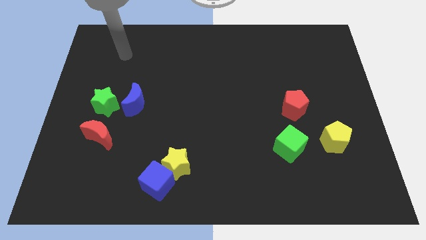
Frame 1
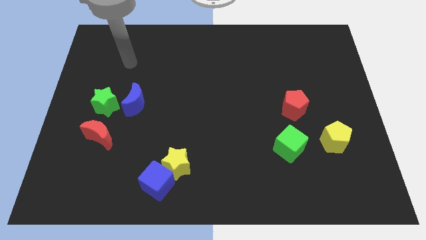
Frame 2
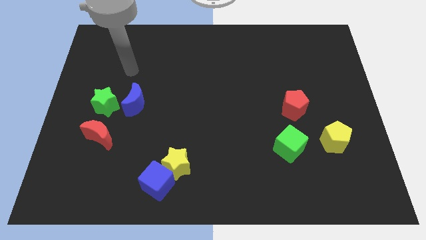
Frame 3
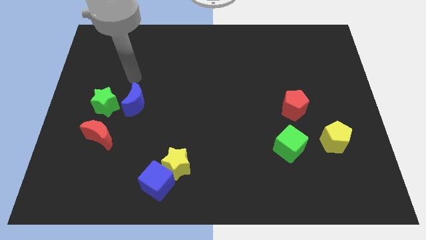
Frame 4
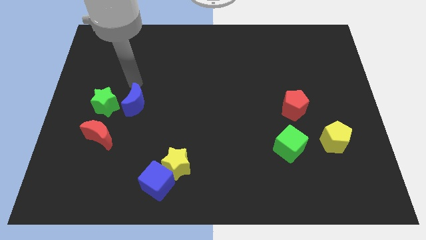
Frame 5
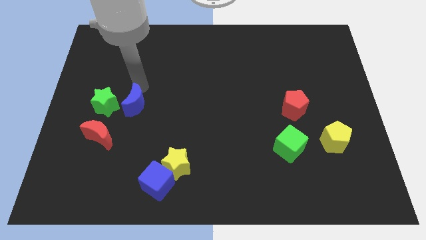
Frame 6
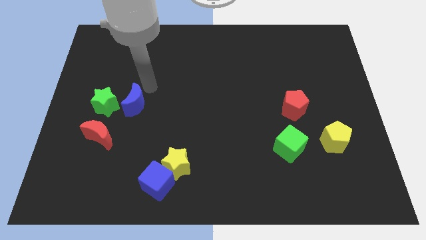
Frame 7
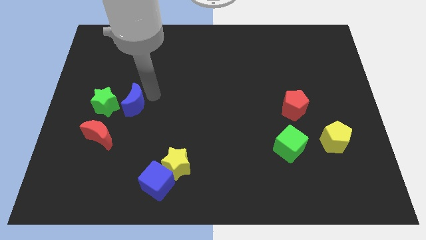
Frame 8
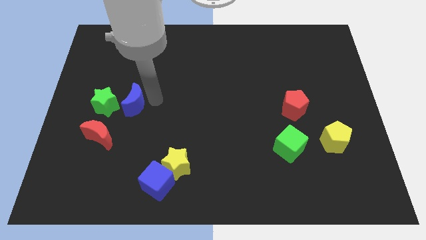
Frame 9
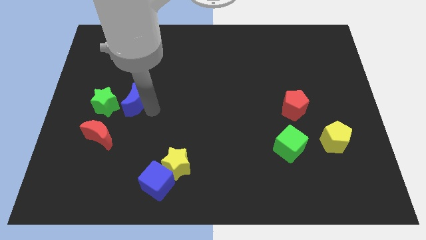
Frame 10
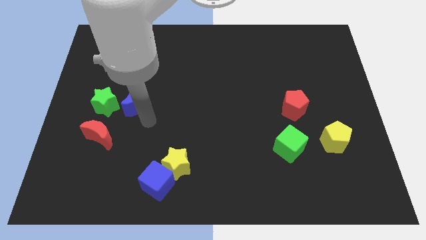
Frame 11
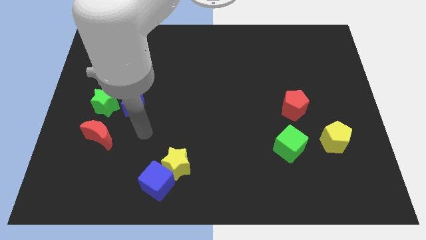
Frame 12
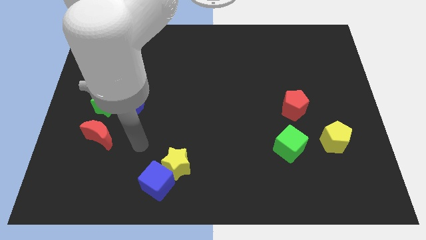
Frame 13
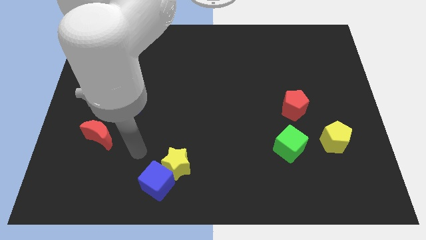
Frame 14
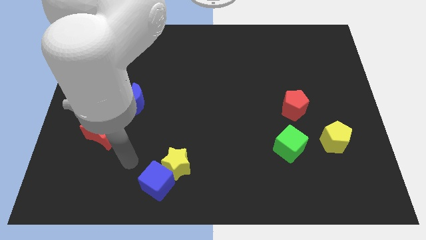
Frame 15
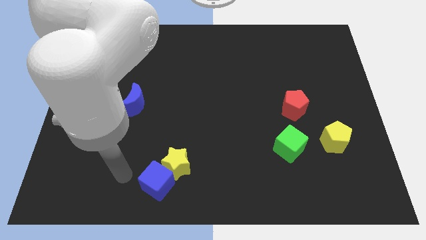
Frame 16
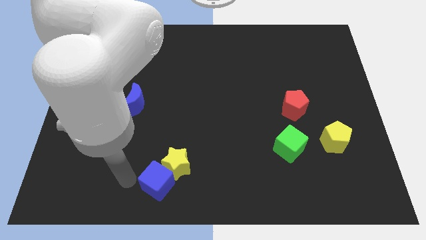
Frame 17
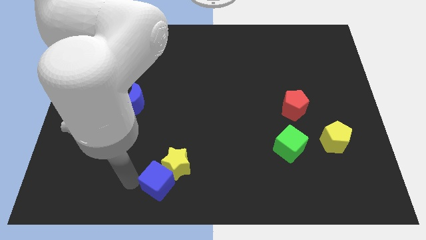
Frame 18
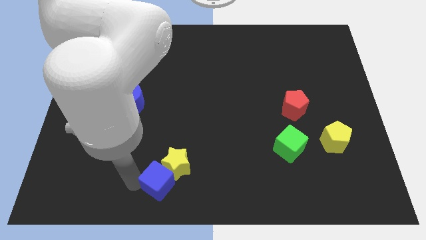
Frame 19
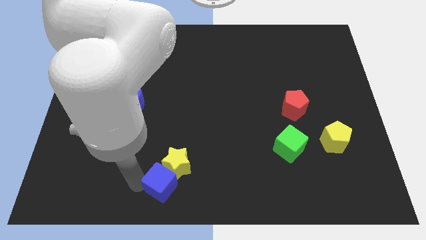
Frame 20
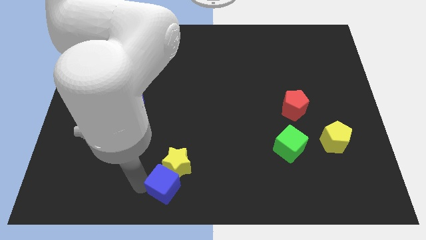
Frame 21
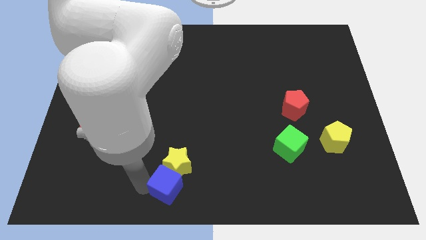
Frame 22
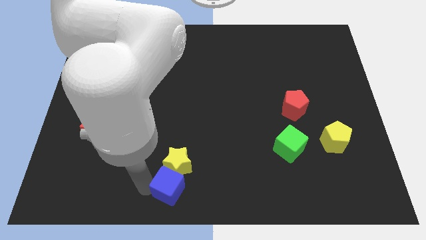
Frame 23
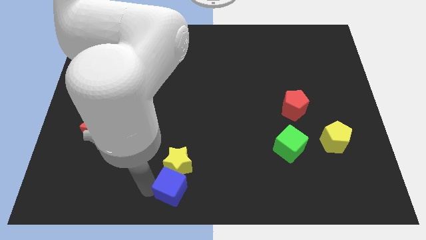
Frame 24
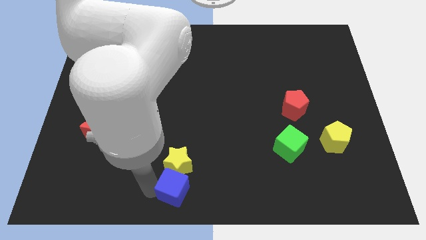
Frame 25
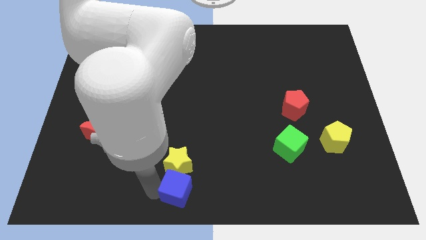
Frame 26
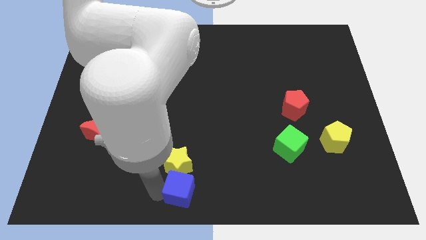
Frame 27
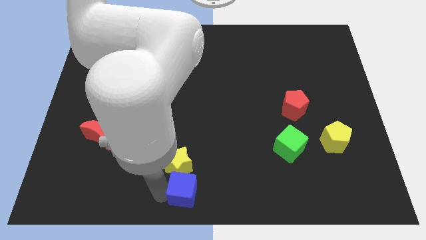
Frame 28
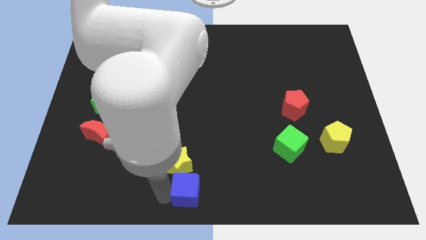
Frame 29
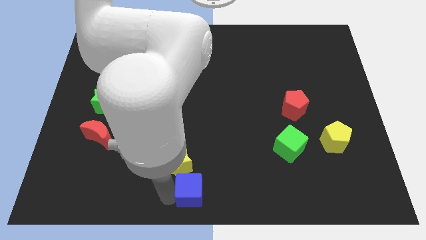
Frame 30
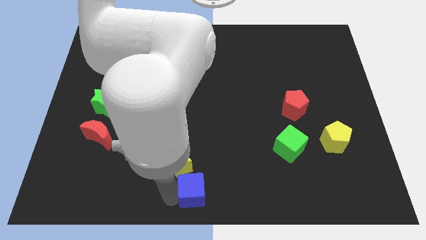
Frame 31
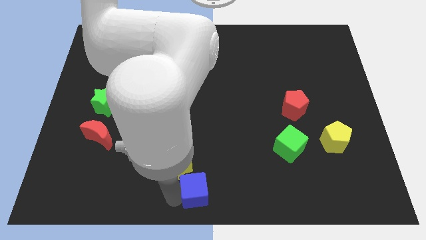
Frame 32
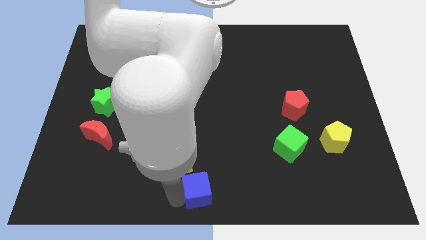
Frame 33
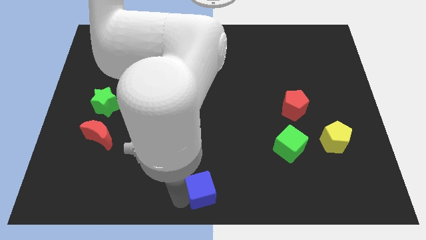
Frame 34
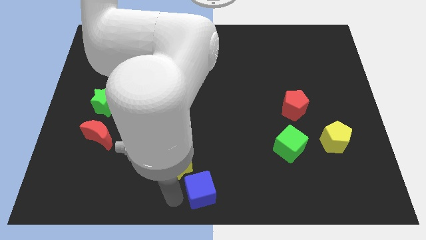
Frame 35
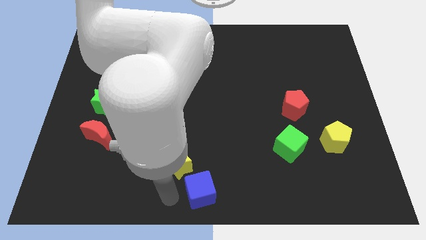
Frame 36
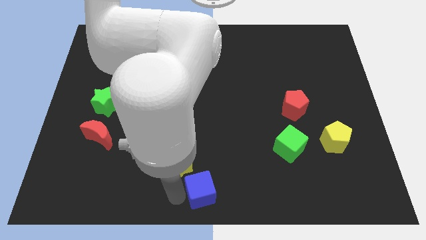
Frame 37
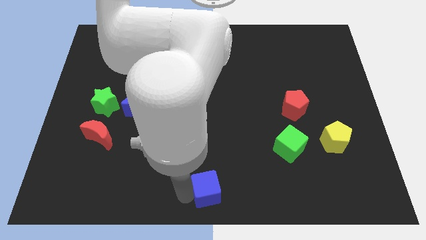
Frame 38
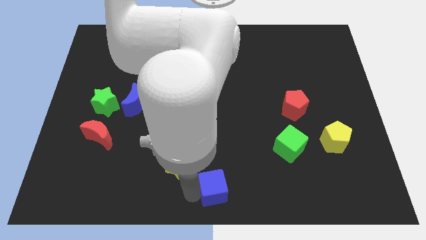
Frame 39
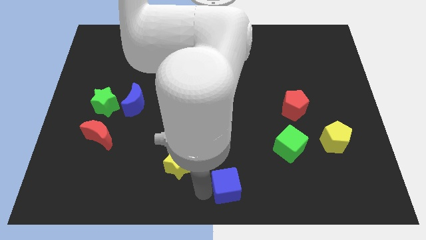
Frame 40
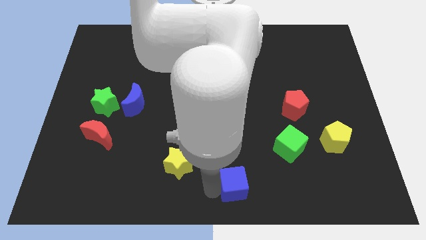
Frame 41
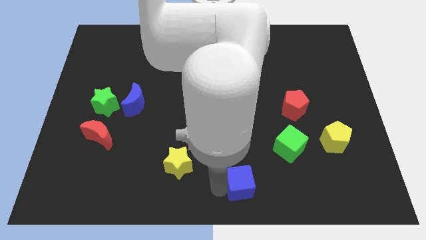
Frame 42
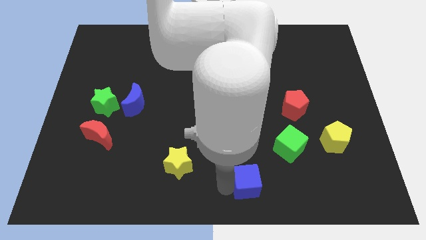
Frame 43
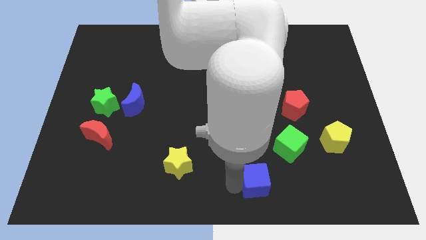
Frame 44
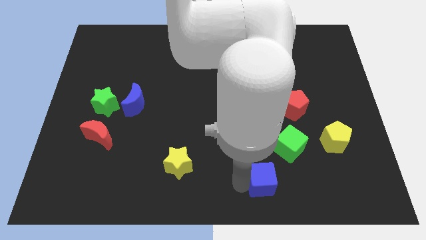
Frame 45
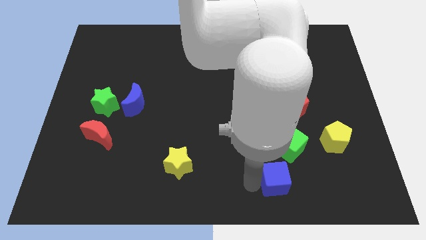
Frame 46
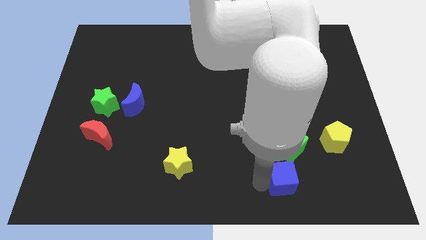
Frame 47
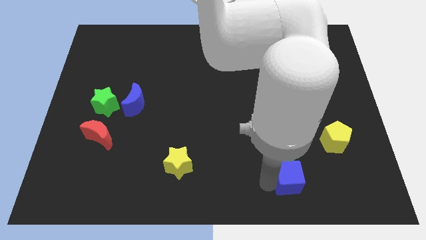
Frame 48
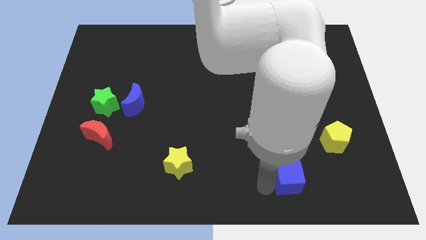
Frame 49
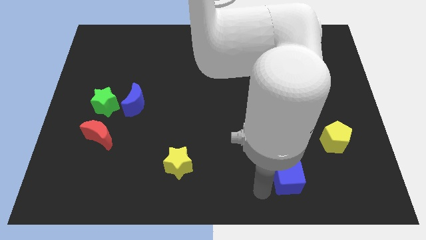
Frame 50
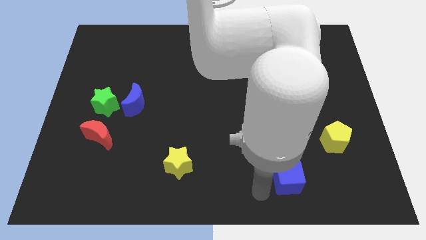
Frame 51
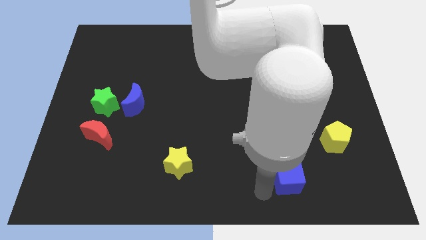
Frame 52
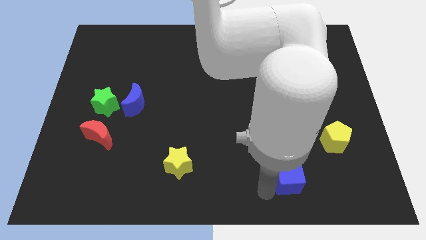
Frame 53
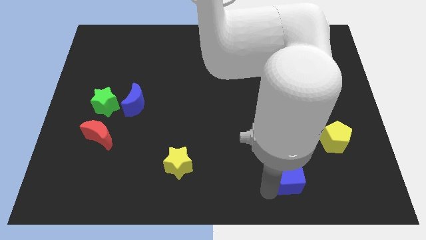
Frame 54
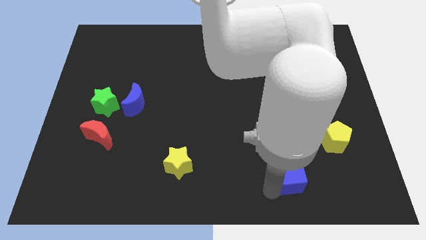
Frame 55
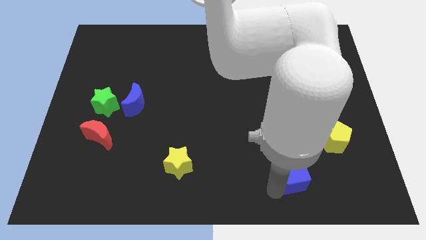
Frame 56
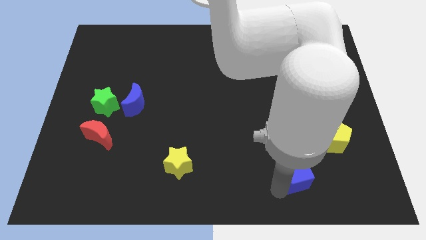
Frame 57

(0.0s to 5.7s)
slide the blue cube to the bottom right of the green cube

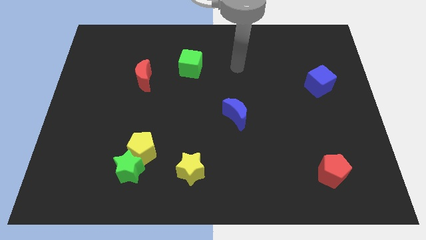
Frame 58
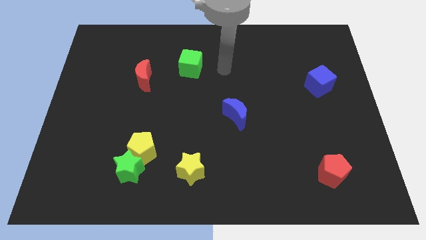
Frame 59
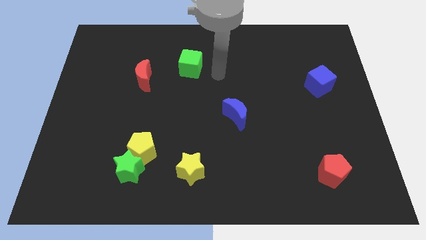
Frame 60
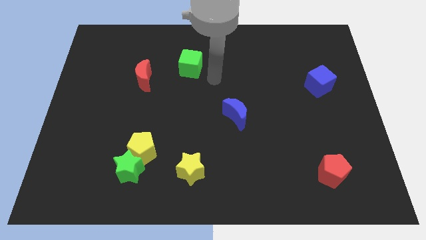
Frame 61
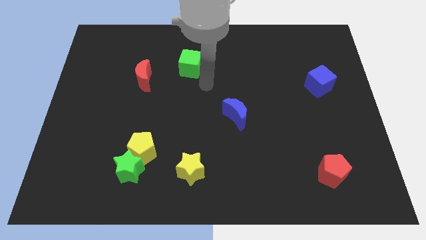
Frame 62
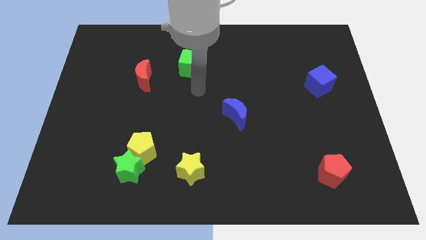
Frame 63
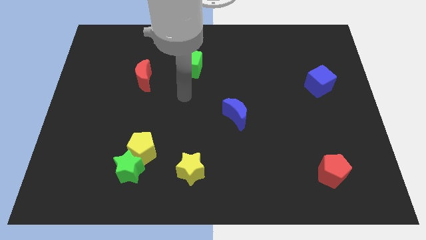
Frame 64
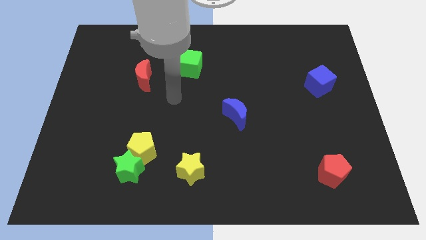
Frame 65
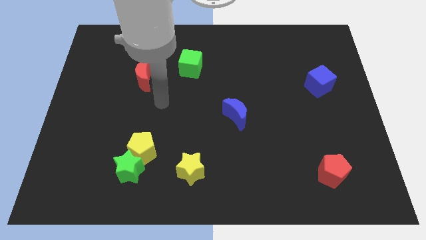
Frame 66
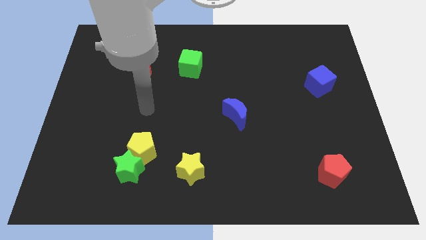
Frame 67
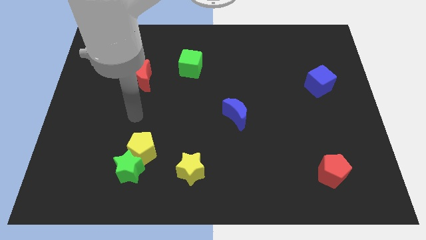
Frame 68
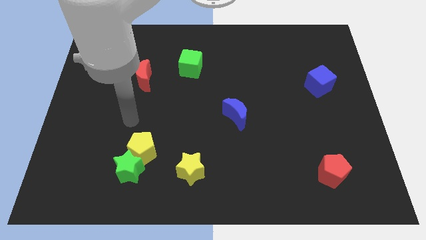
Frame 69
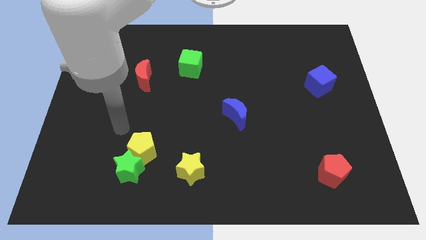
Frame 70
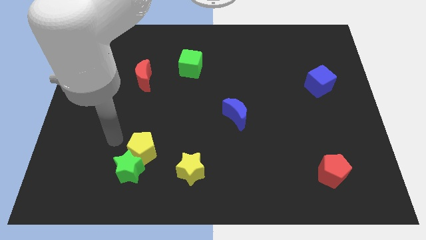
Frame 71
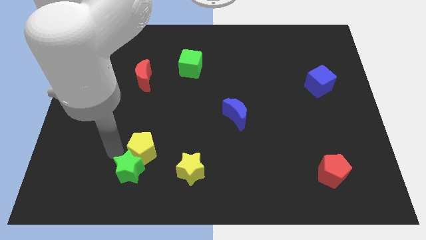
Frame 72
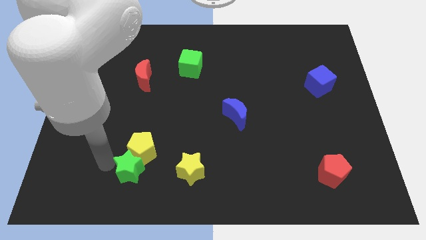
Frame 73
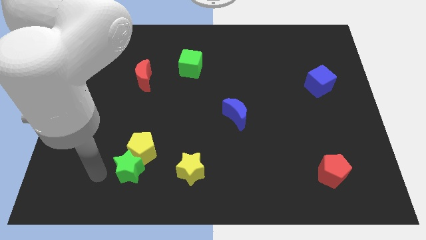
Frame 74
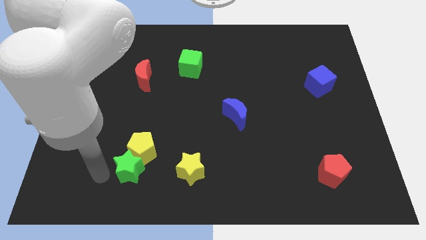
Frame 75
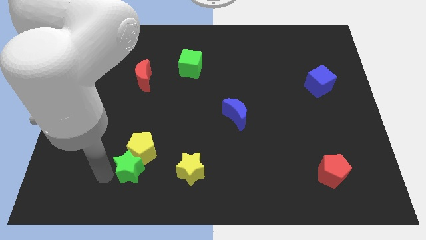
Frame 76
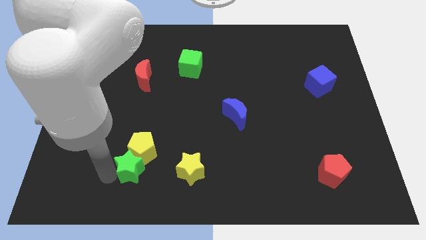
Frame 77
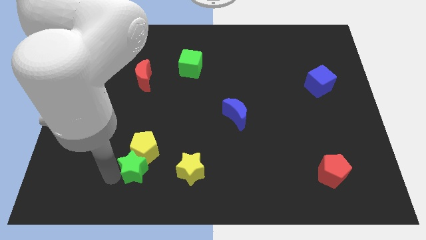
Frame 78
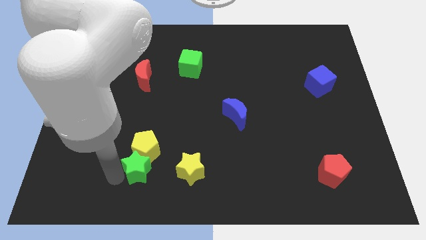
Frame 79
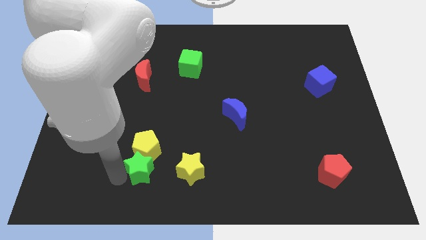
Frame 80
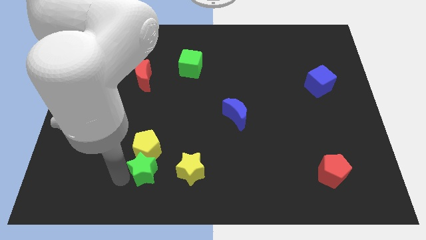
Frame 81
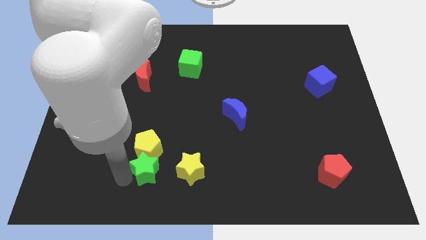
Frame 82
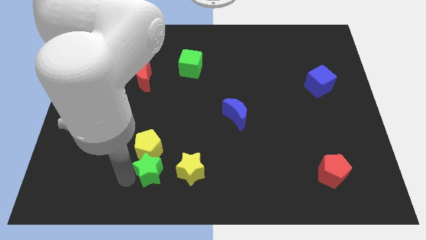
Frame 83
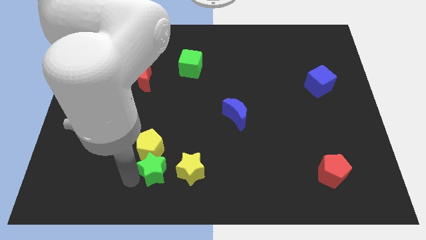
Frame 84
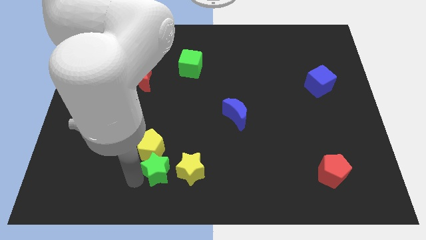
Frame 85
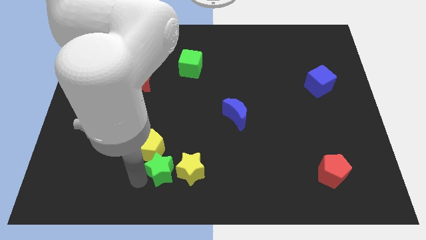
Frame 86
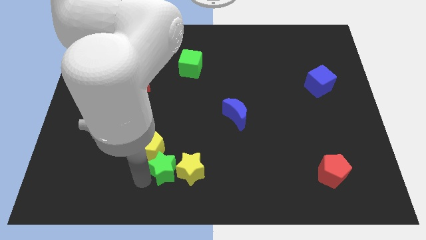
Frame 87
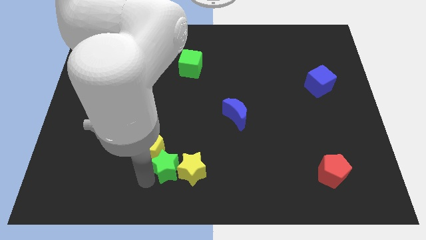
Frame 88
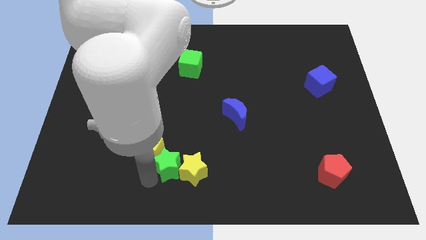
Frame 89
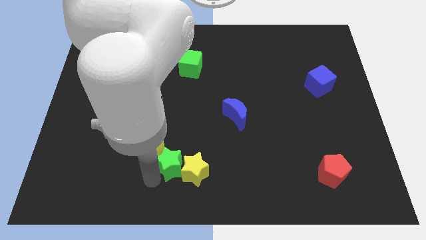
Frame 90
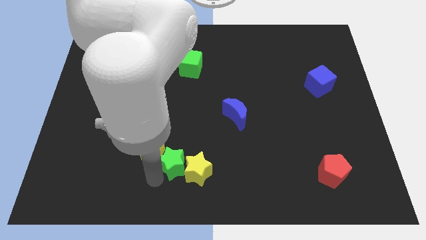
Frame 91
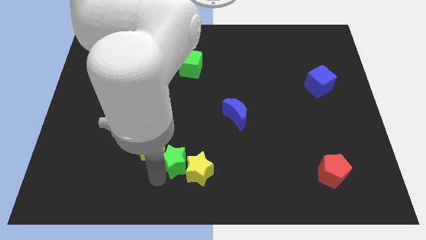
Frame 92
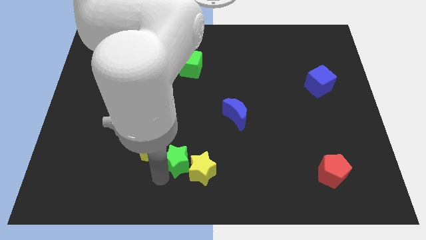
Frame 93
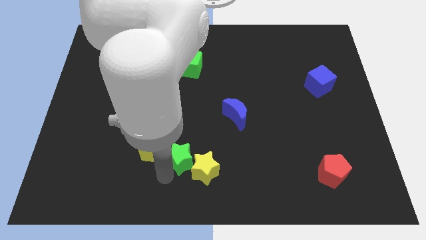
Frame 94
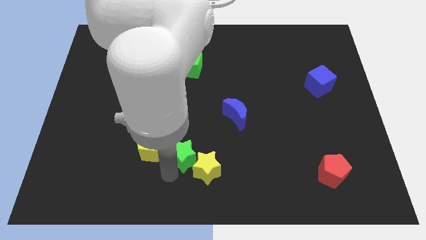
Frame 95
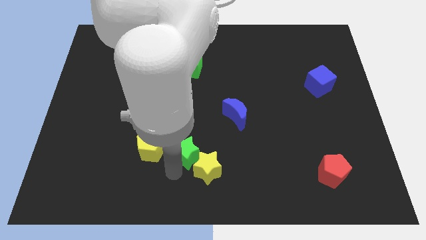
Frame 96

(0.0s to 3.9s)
push the green star above the yellow star
